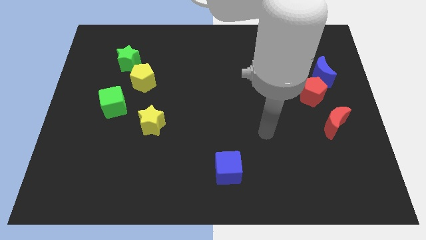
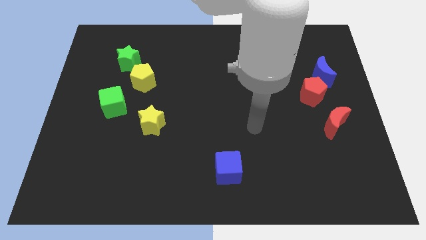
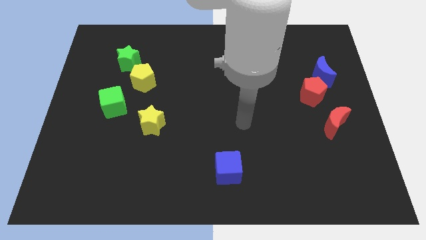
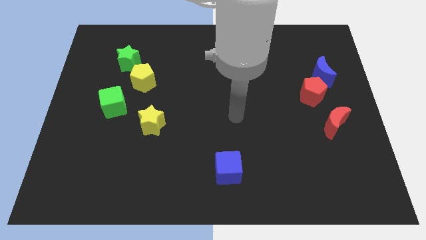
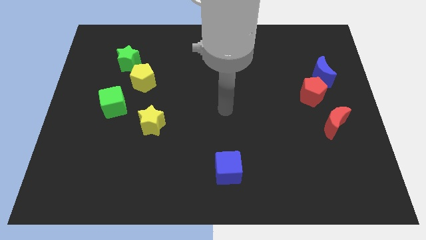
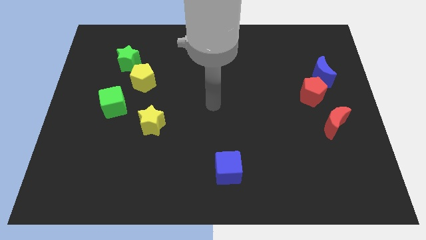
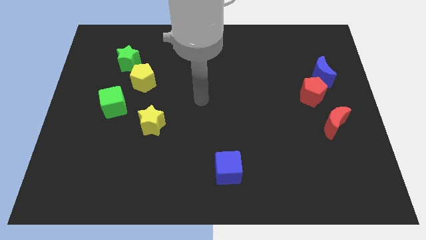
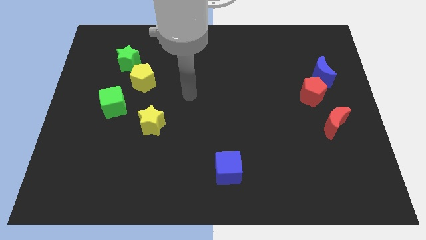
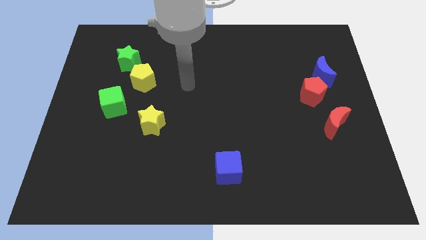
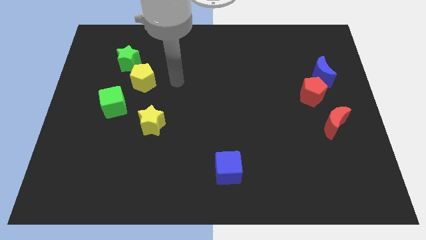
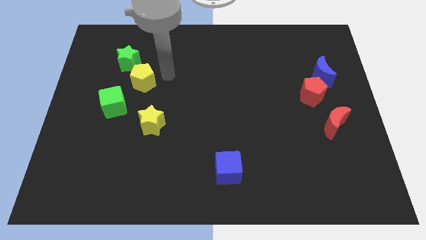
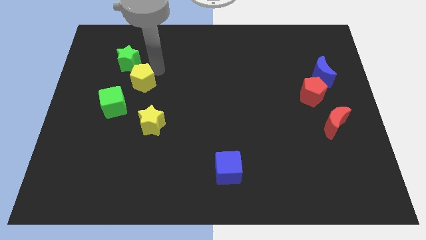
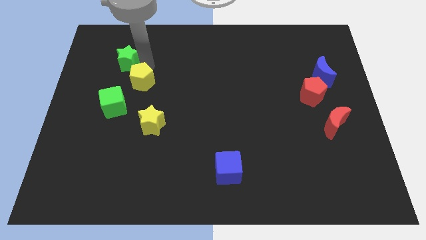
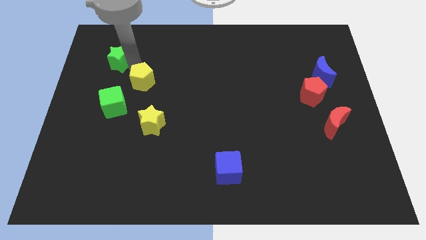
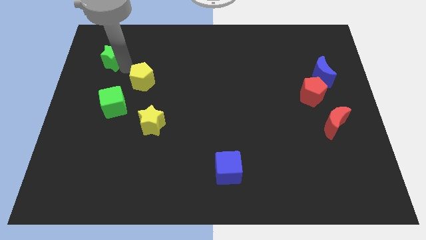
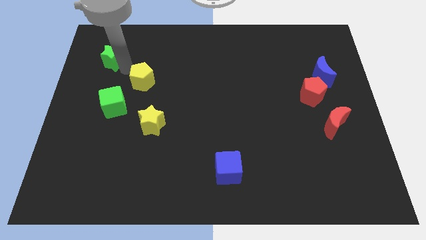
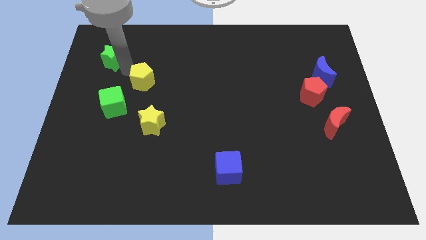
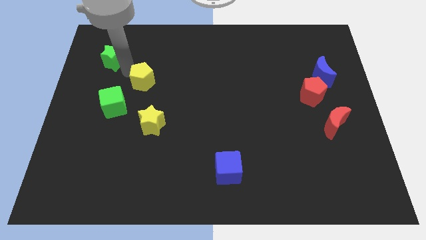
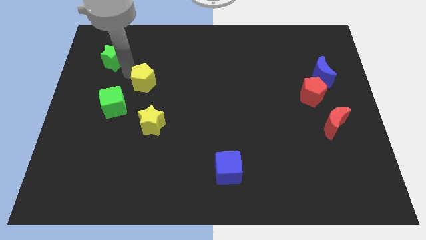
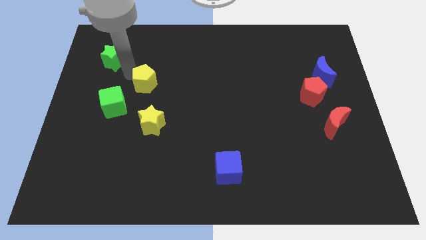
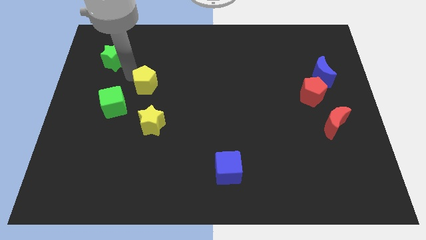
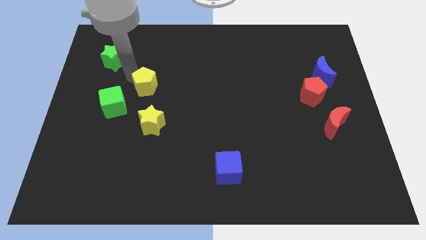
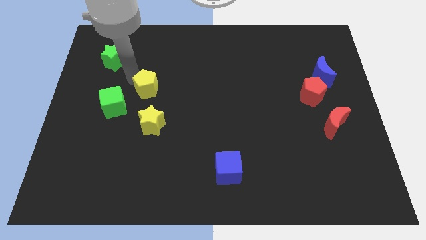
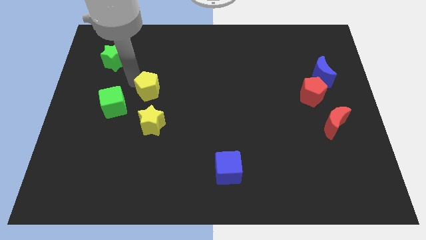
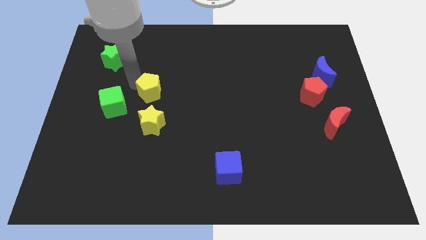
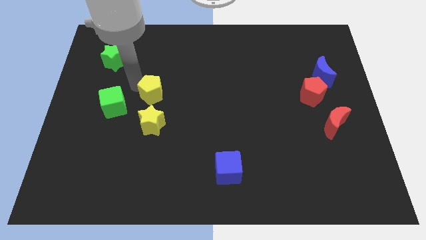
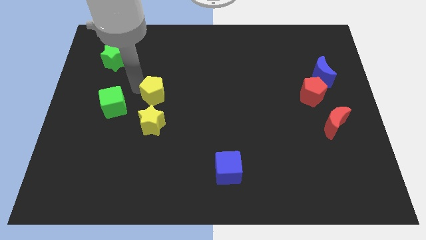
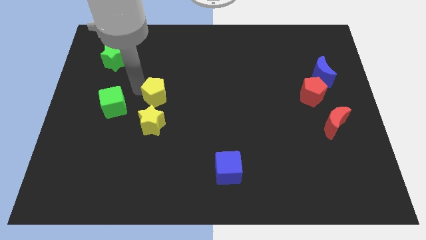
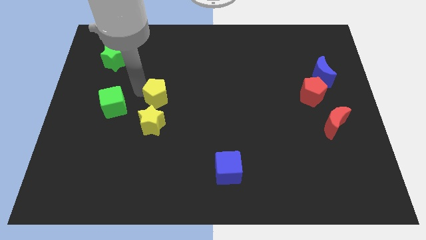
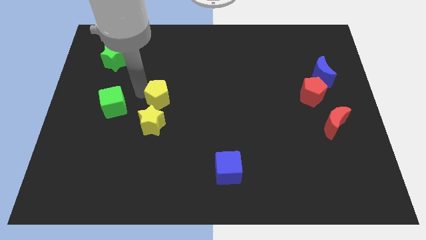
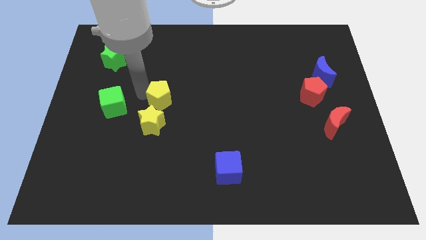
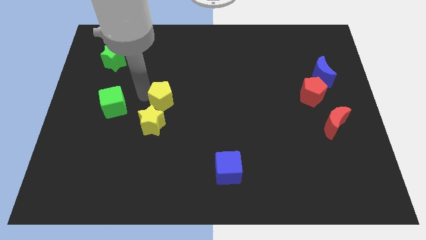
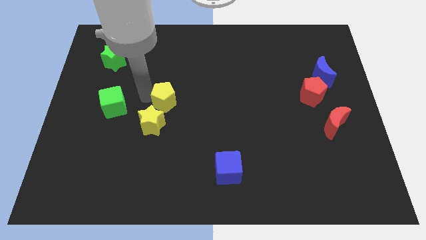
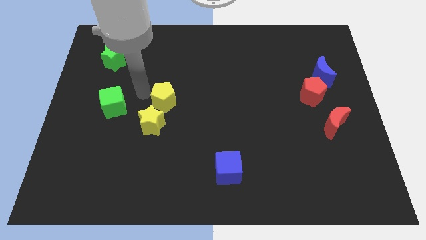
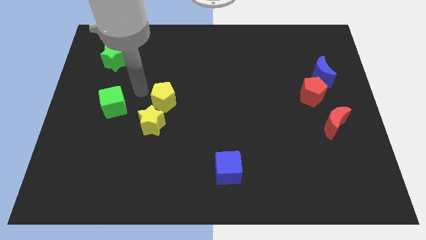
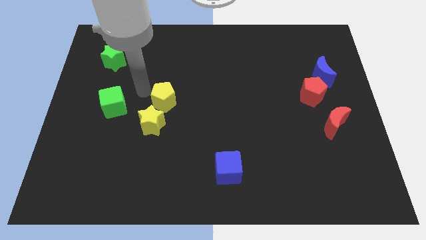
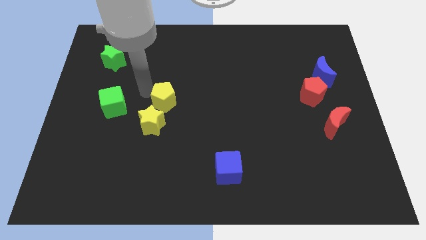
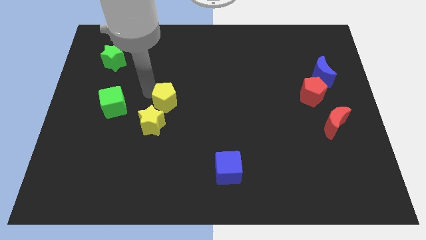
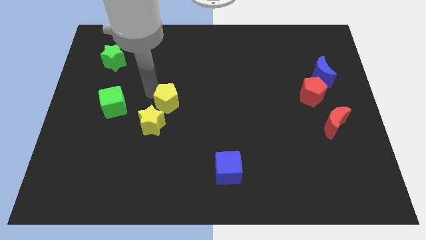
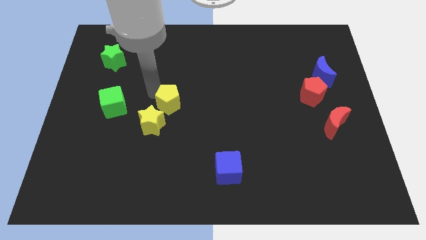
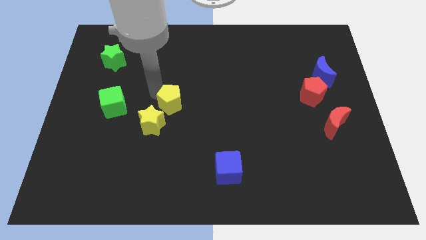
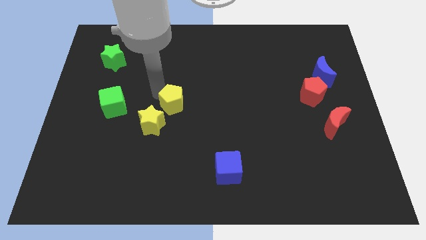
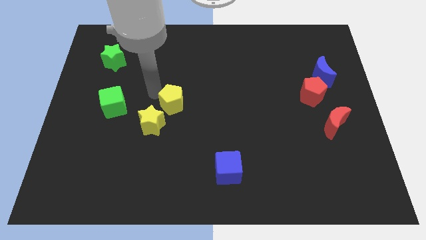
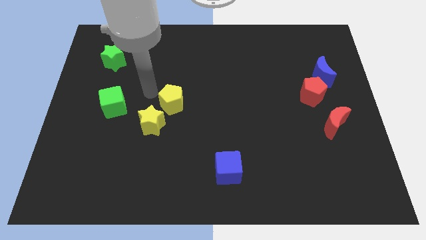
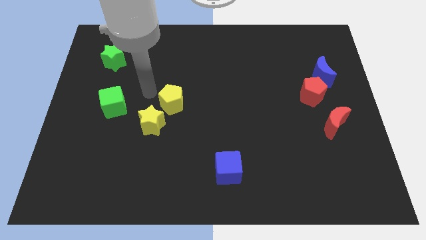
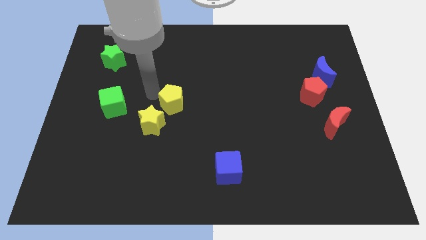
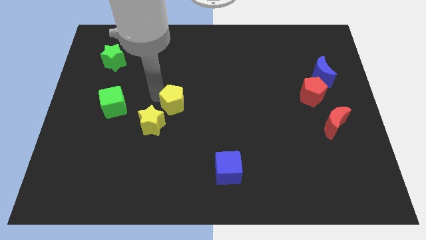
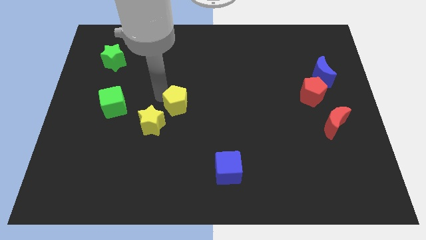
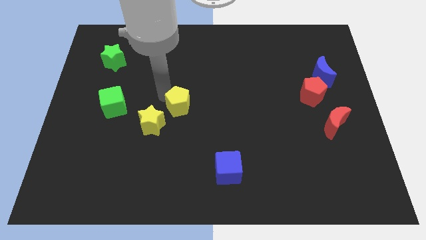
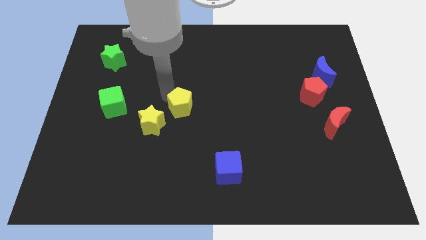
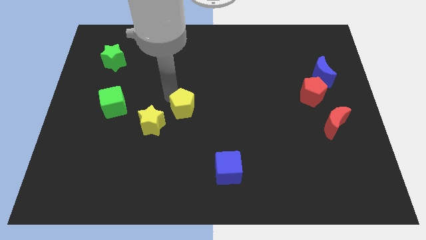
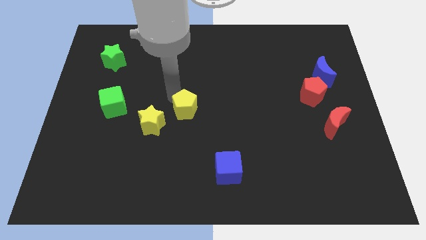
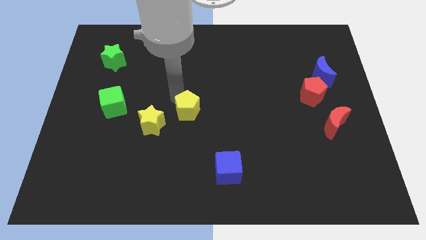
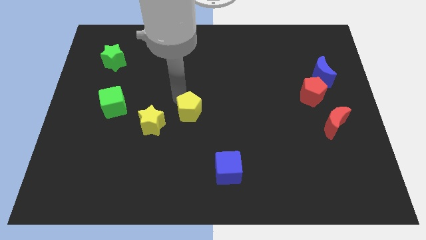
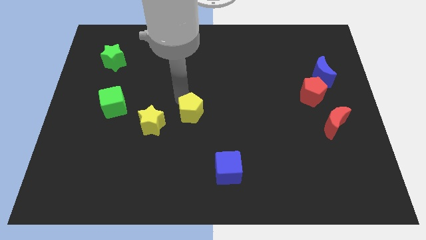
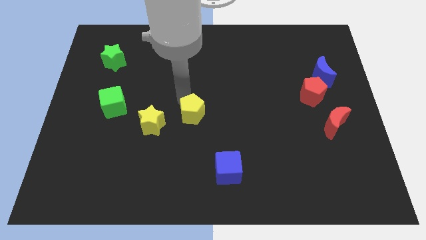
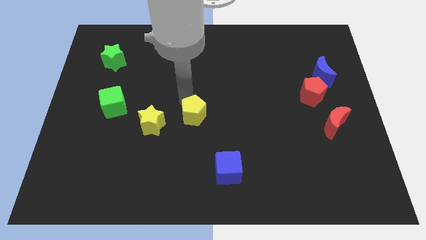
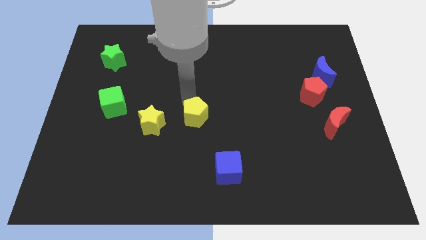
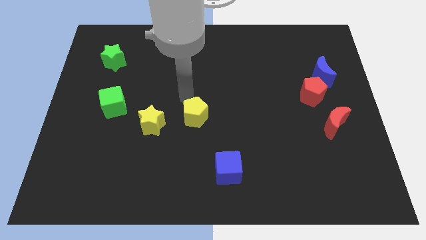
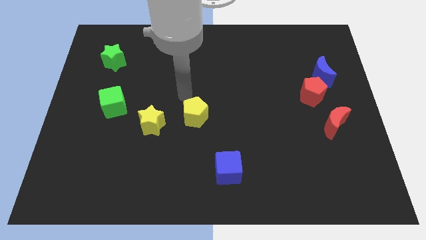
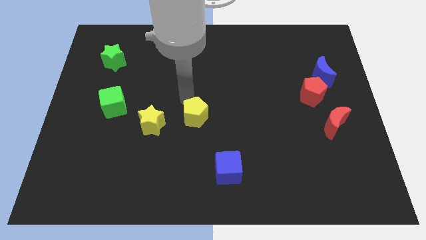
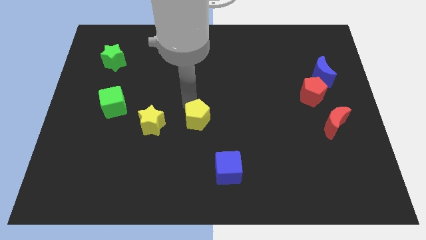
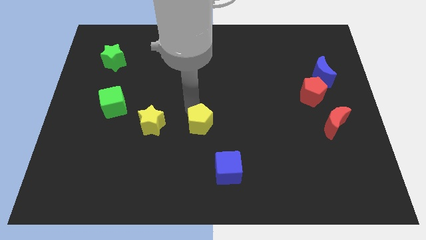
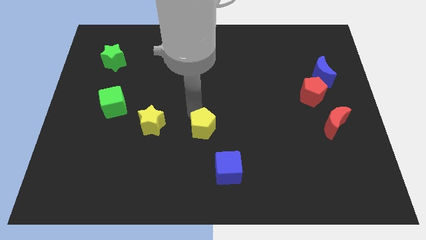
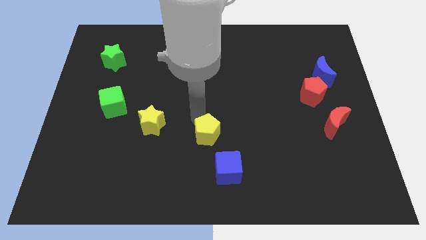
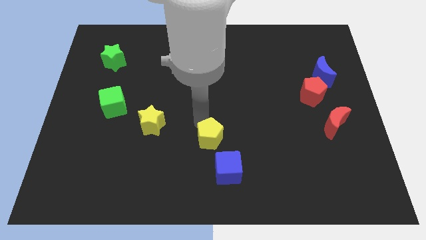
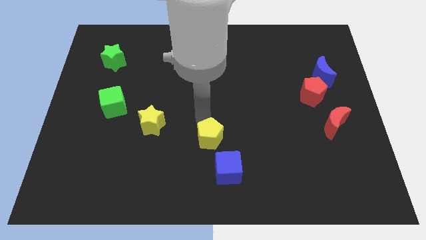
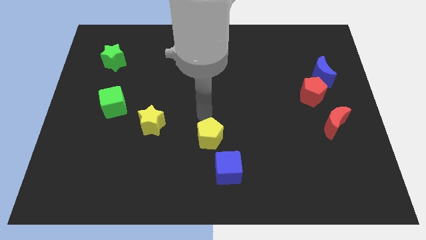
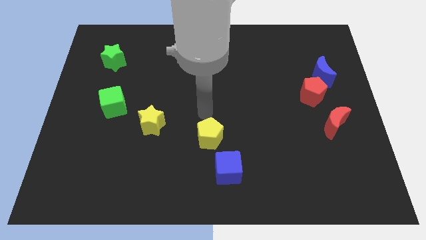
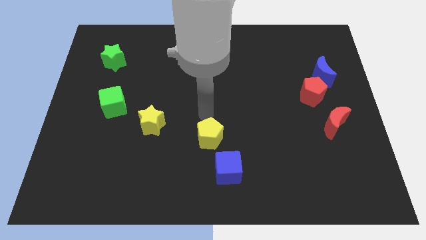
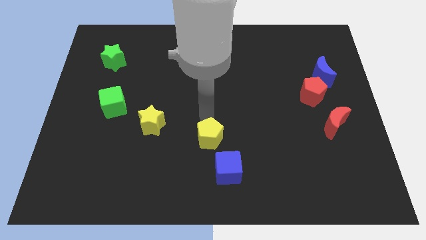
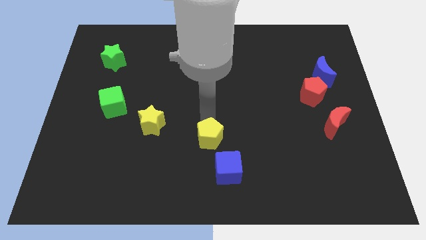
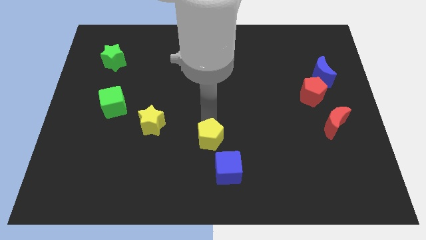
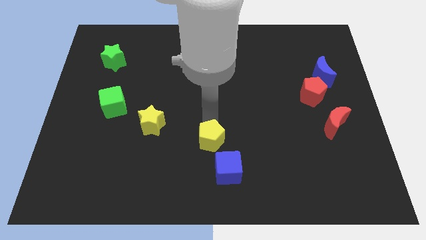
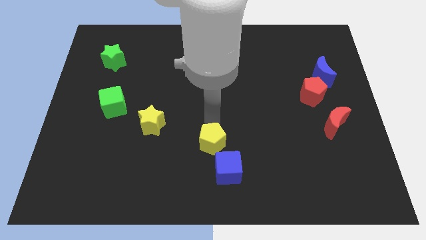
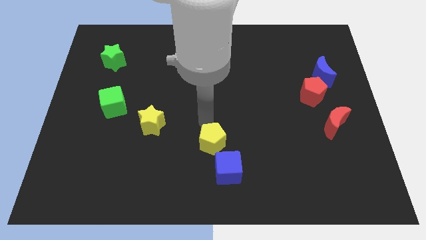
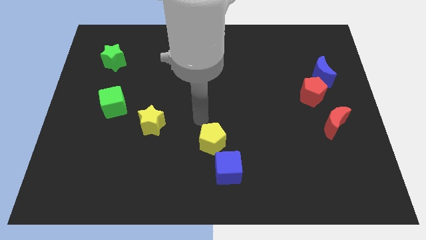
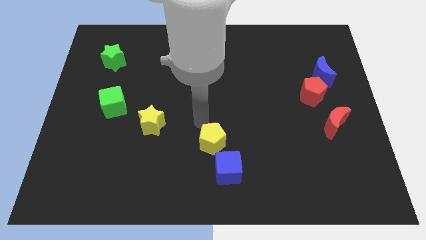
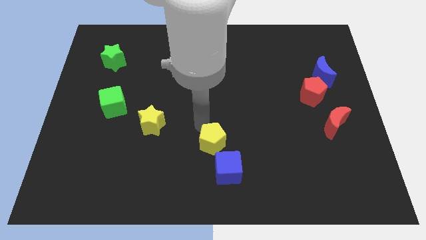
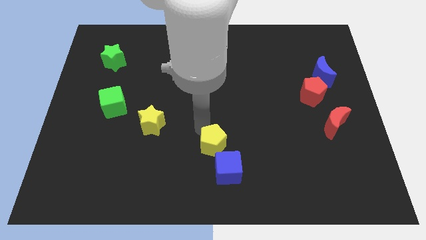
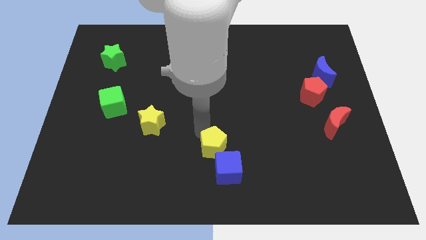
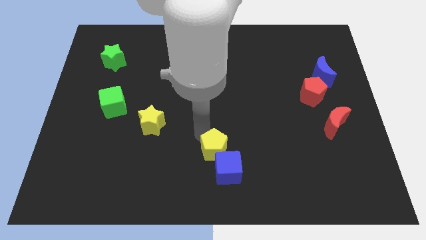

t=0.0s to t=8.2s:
push the yellow pentagon next to the blue cube
